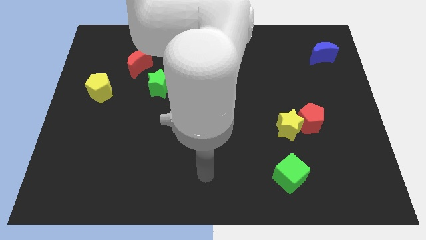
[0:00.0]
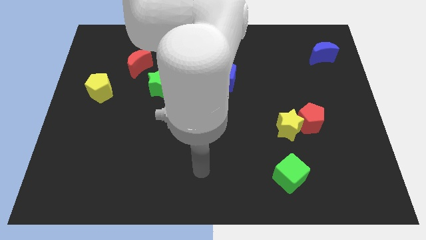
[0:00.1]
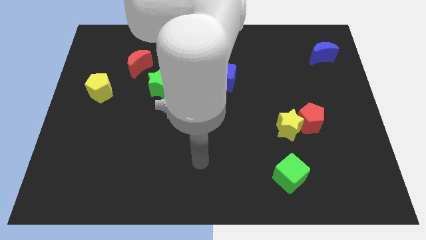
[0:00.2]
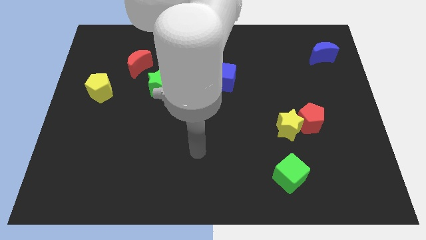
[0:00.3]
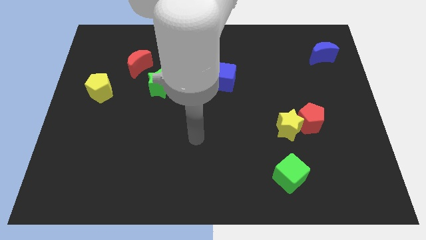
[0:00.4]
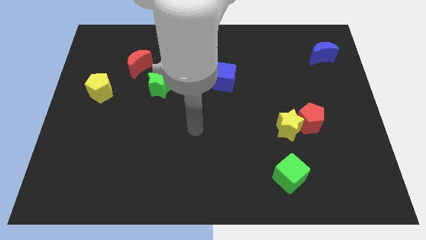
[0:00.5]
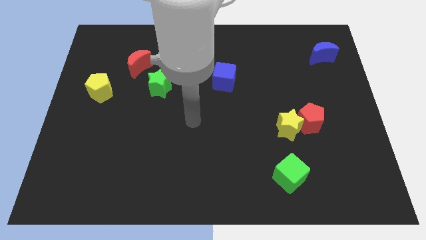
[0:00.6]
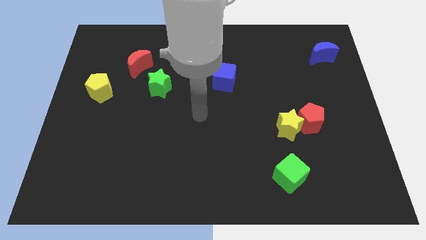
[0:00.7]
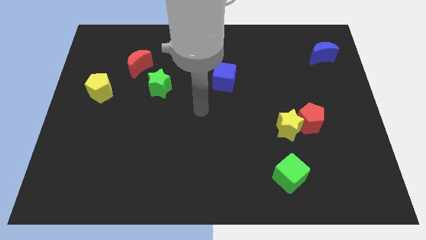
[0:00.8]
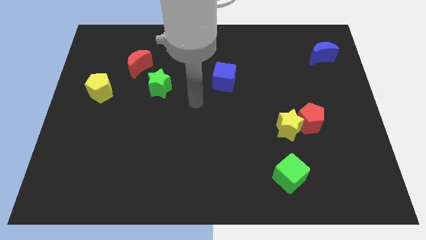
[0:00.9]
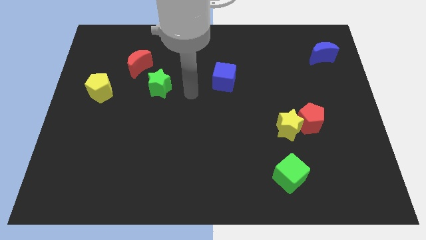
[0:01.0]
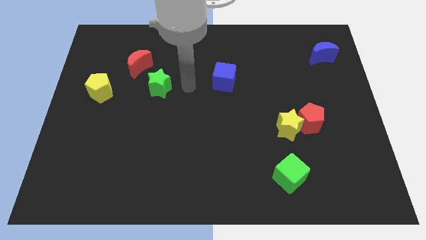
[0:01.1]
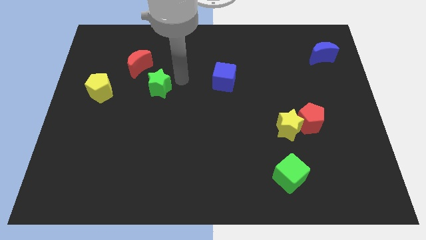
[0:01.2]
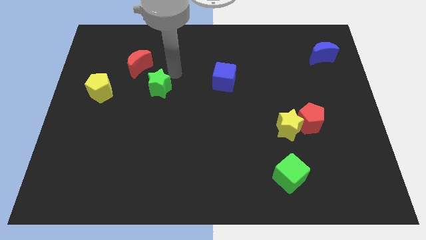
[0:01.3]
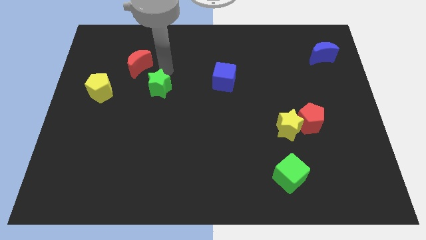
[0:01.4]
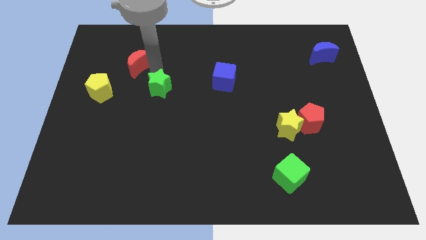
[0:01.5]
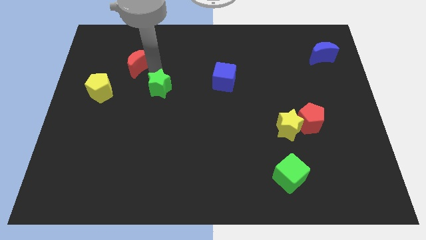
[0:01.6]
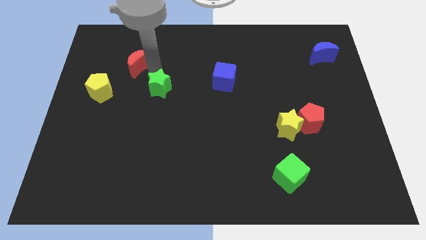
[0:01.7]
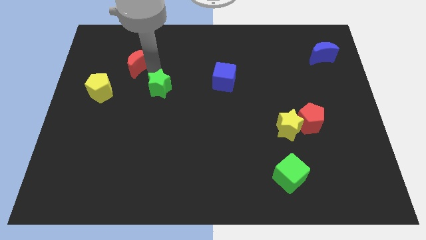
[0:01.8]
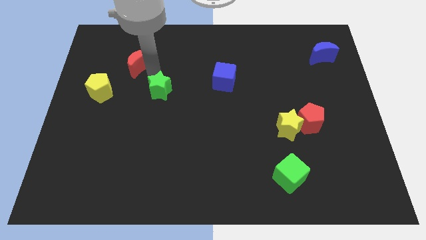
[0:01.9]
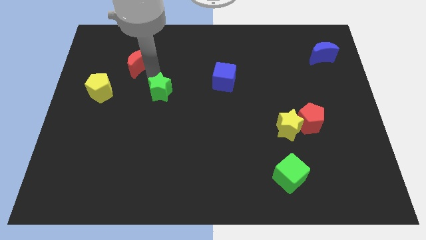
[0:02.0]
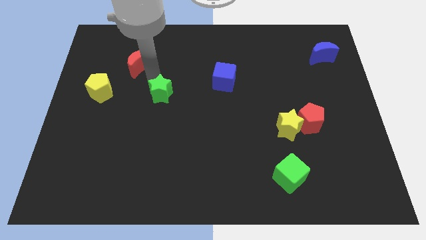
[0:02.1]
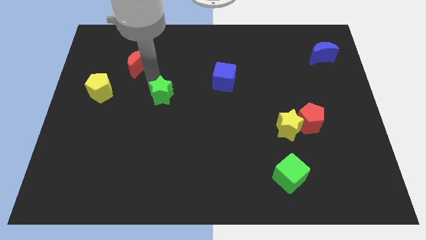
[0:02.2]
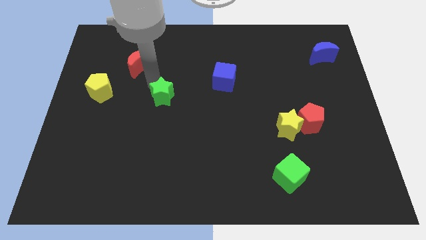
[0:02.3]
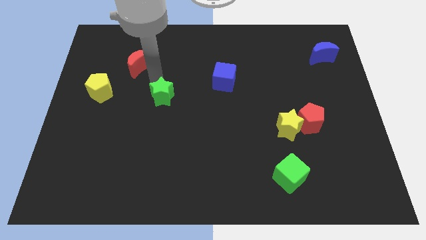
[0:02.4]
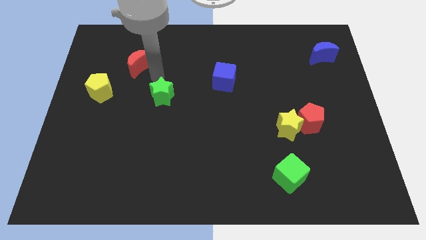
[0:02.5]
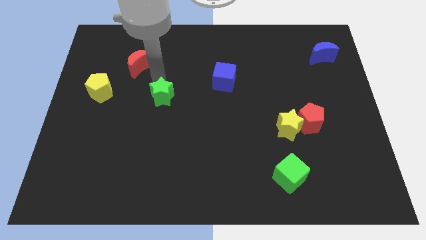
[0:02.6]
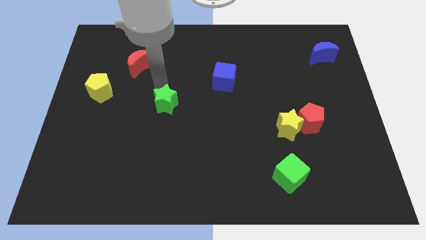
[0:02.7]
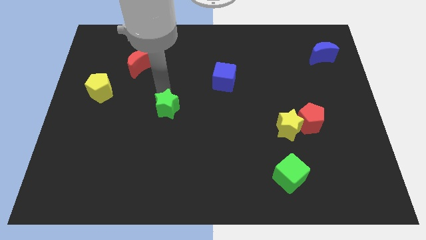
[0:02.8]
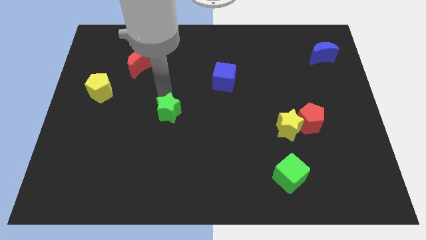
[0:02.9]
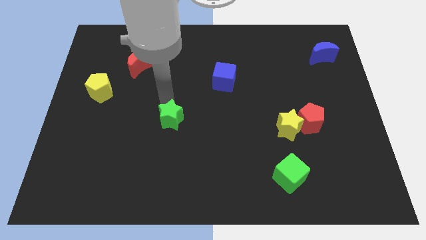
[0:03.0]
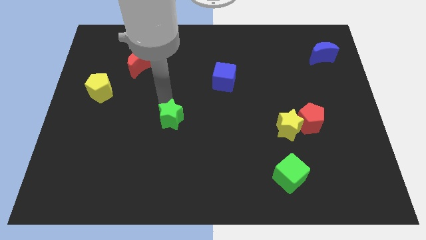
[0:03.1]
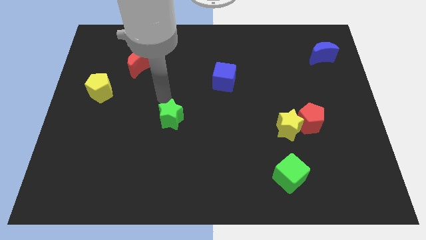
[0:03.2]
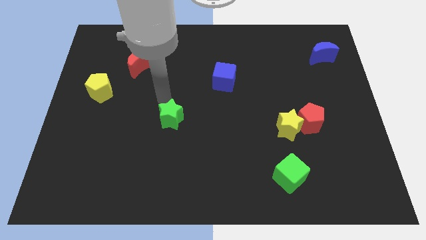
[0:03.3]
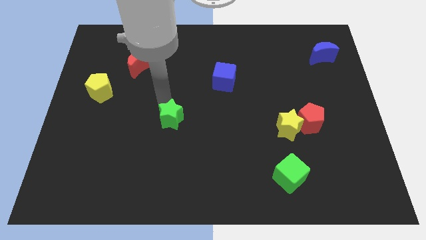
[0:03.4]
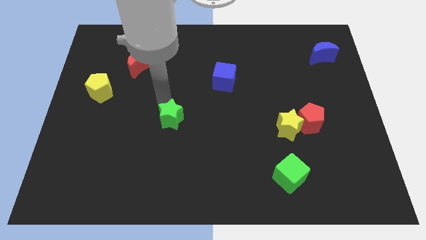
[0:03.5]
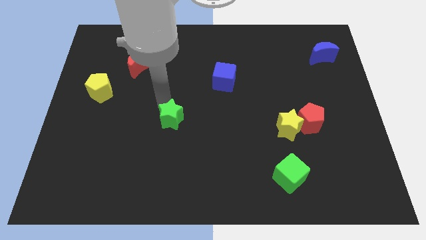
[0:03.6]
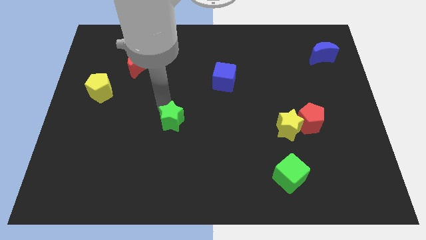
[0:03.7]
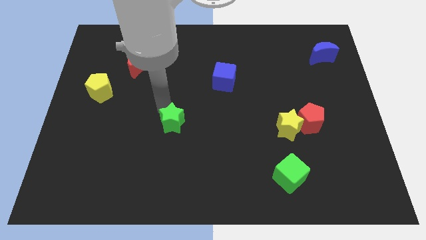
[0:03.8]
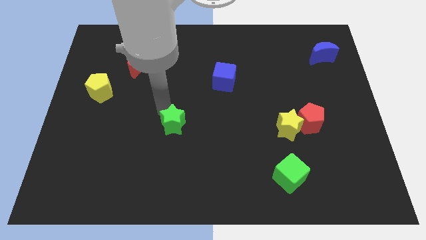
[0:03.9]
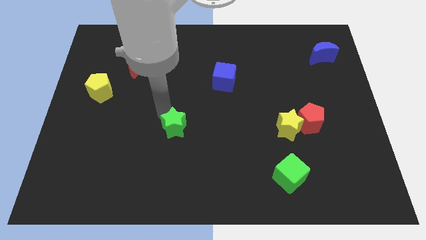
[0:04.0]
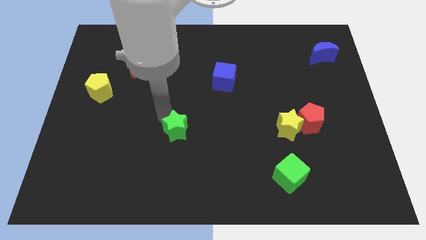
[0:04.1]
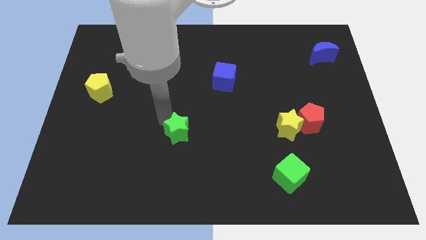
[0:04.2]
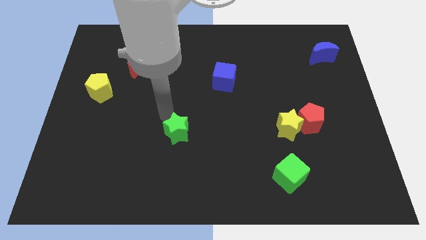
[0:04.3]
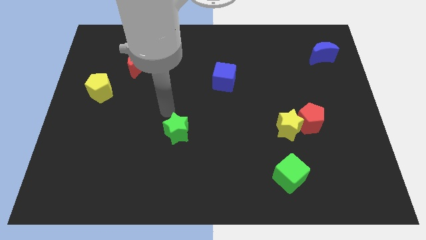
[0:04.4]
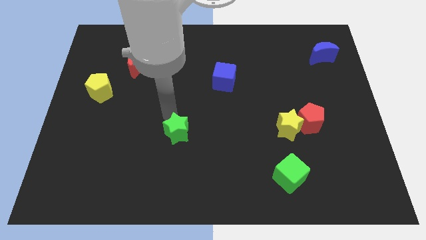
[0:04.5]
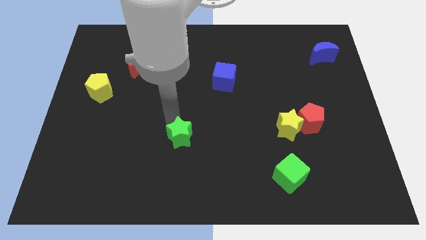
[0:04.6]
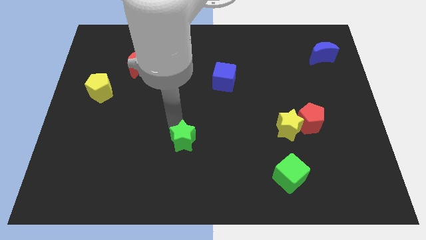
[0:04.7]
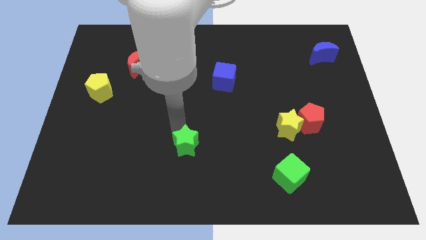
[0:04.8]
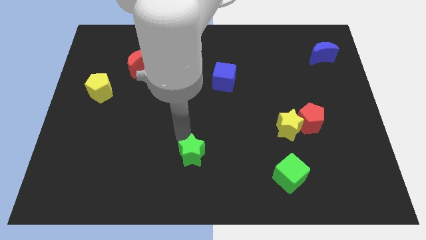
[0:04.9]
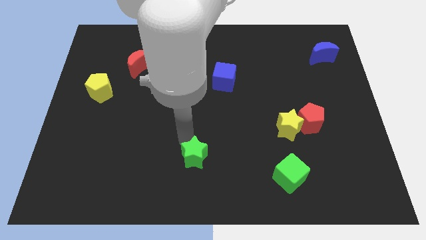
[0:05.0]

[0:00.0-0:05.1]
slide the green star to the bottom

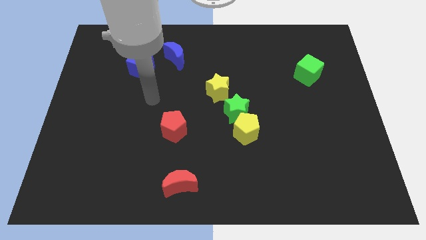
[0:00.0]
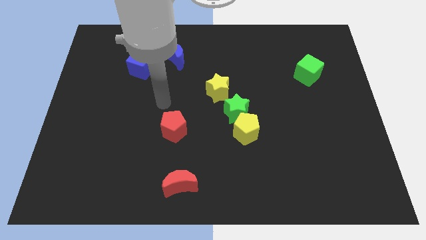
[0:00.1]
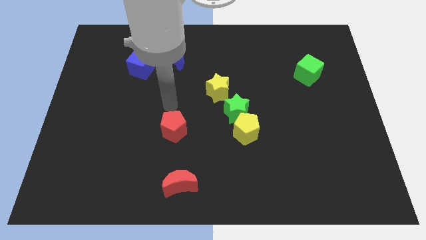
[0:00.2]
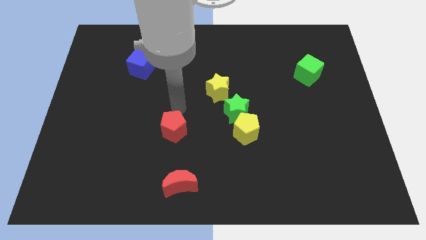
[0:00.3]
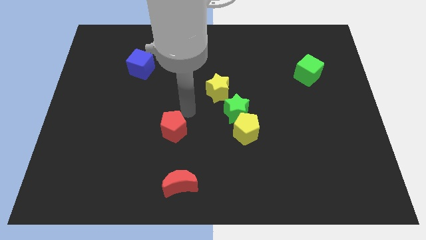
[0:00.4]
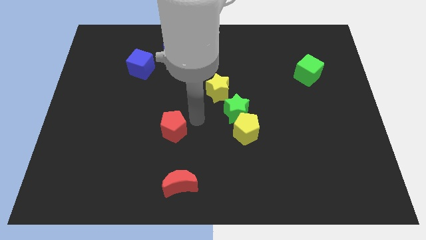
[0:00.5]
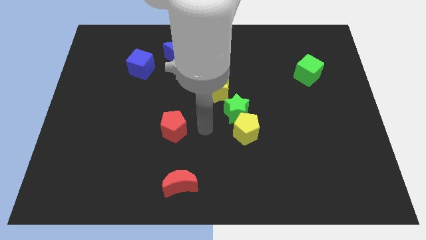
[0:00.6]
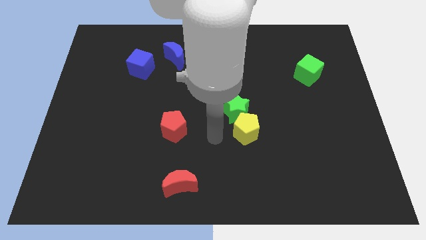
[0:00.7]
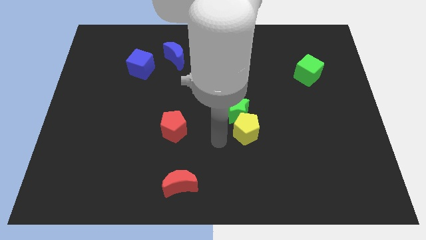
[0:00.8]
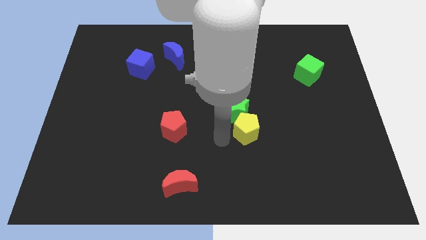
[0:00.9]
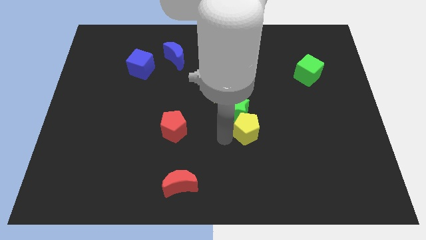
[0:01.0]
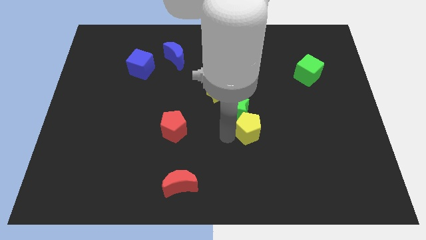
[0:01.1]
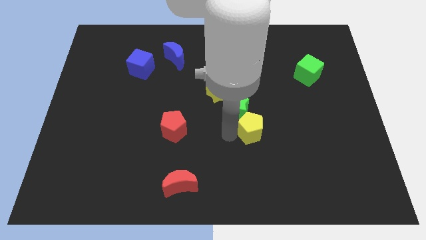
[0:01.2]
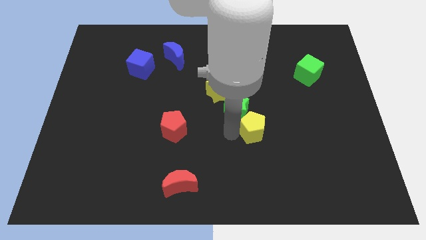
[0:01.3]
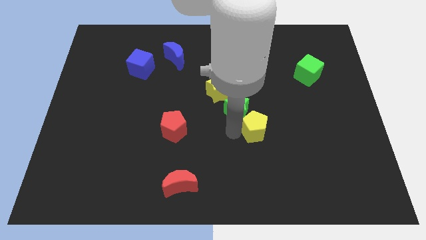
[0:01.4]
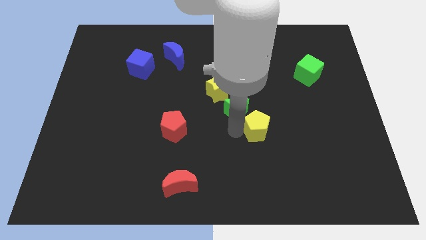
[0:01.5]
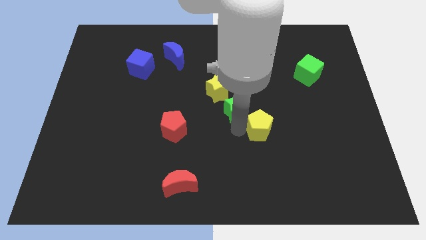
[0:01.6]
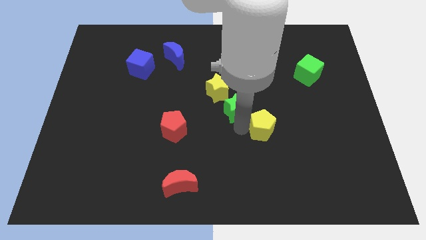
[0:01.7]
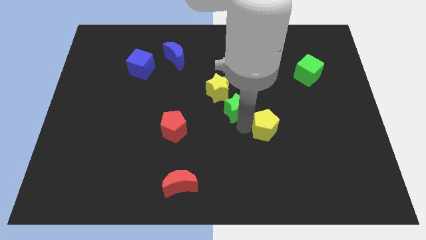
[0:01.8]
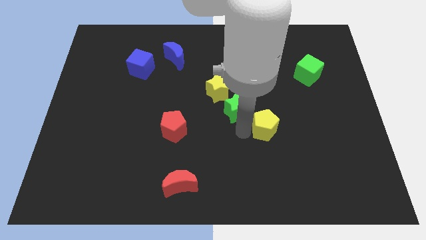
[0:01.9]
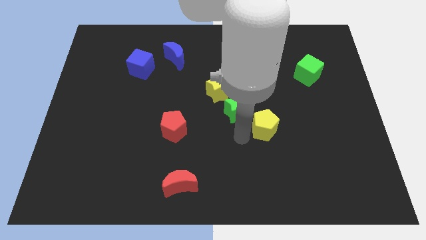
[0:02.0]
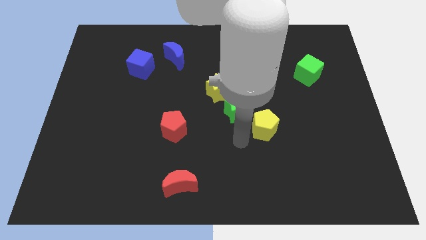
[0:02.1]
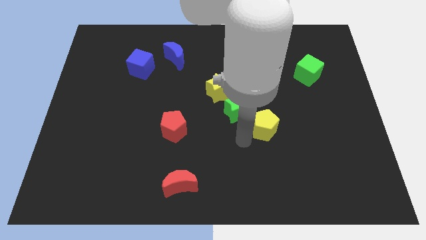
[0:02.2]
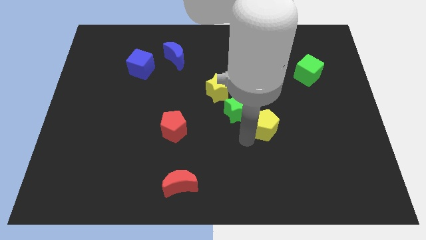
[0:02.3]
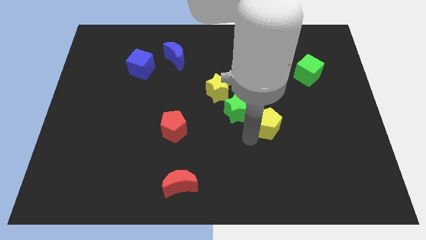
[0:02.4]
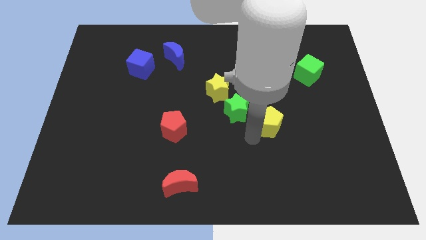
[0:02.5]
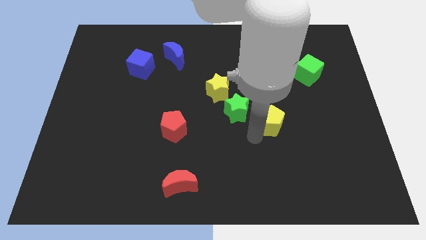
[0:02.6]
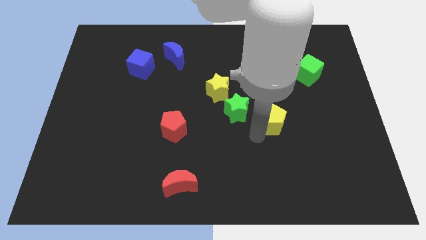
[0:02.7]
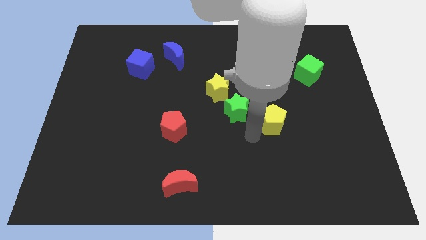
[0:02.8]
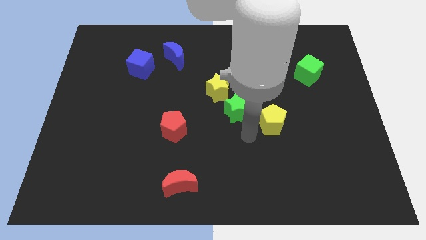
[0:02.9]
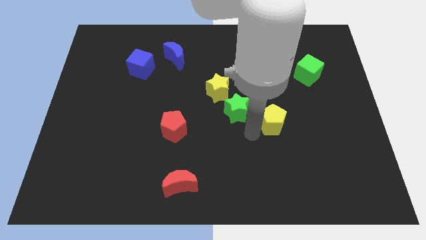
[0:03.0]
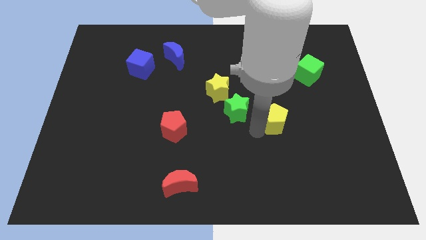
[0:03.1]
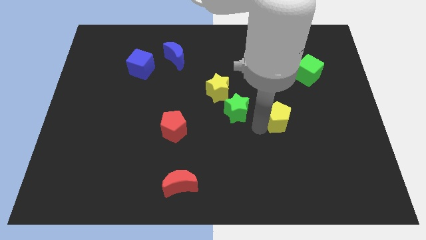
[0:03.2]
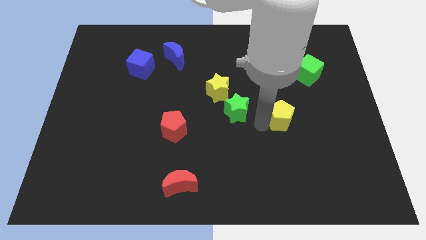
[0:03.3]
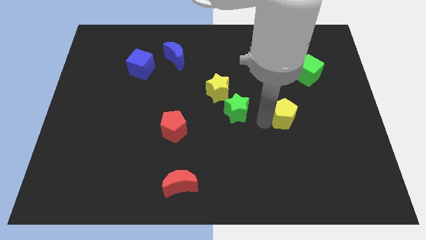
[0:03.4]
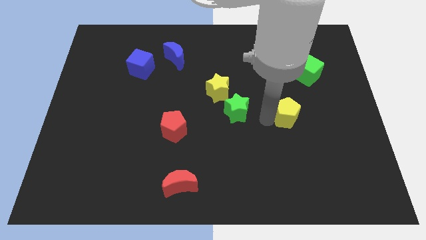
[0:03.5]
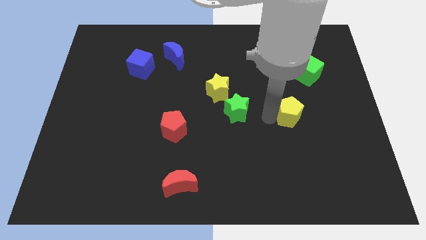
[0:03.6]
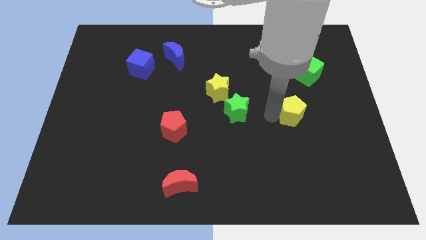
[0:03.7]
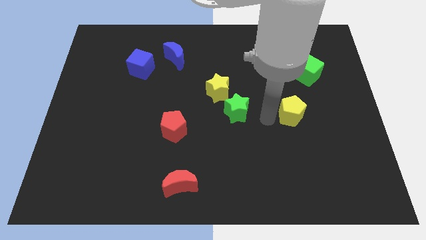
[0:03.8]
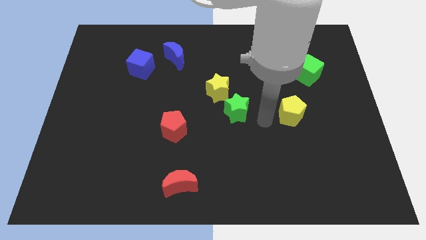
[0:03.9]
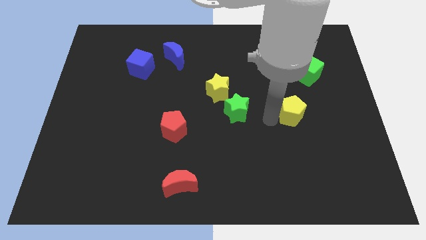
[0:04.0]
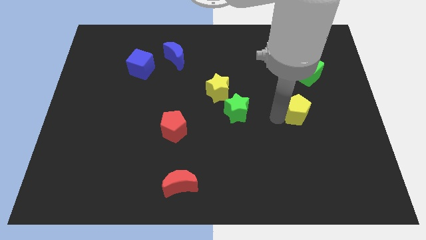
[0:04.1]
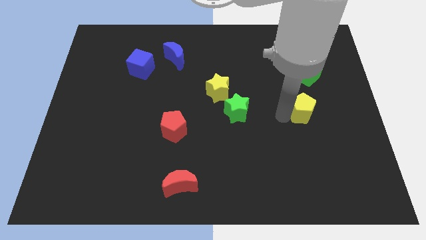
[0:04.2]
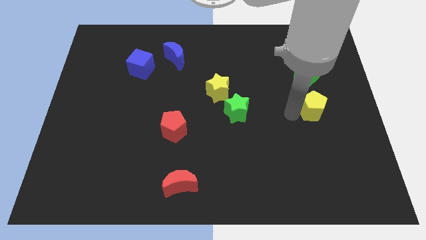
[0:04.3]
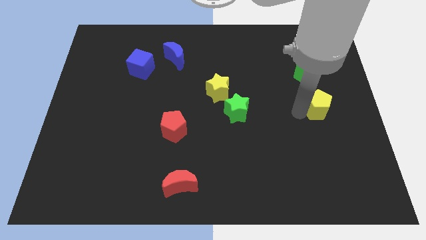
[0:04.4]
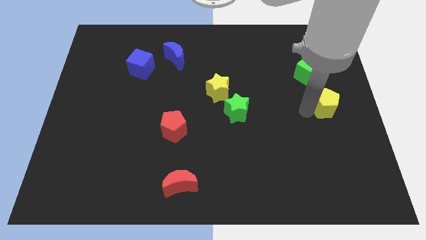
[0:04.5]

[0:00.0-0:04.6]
put the yellow pentagon to the right side
